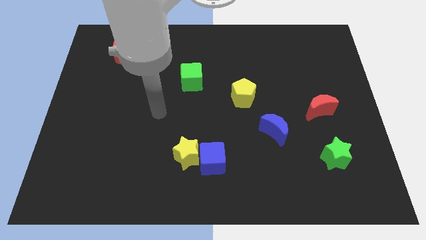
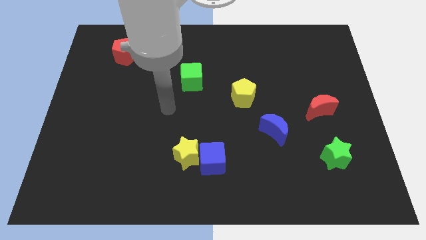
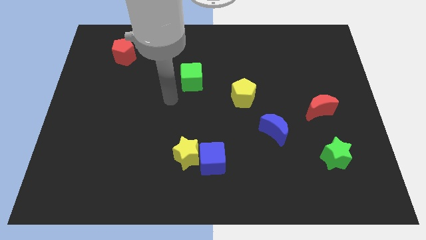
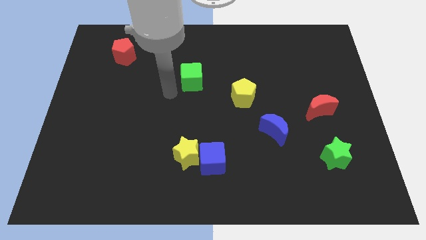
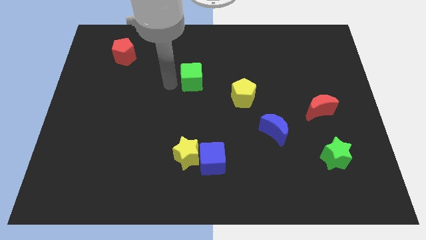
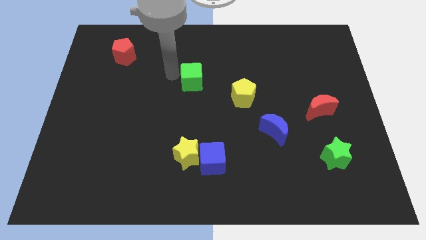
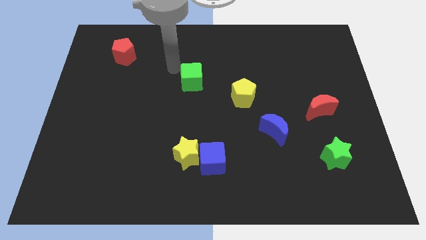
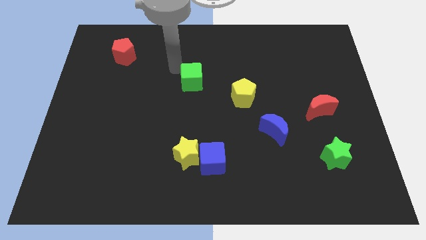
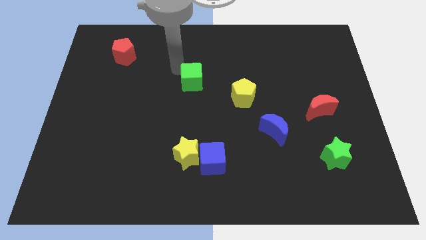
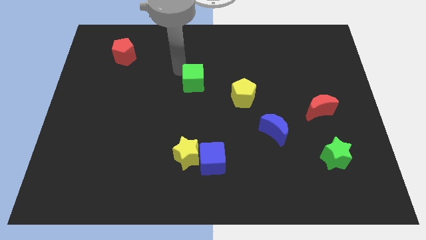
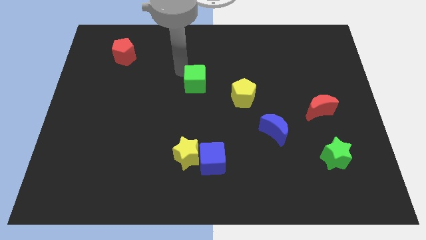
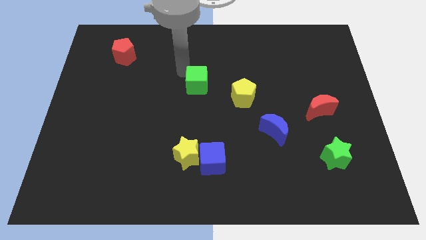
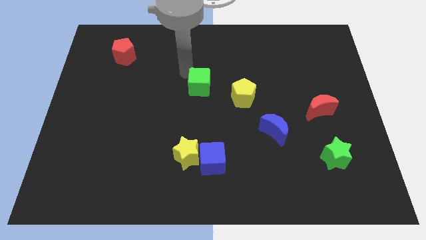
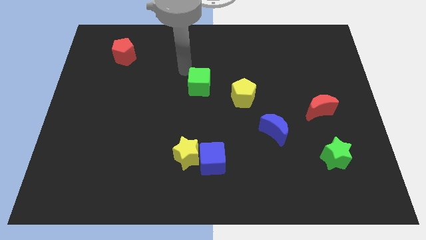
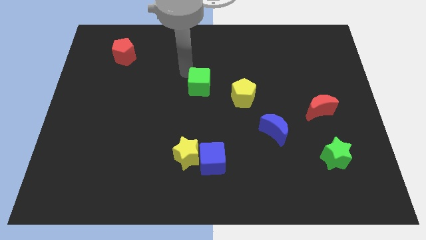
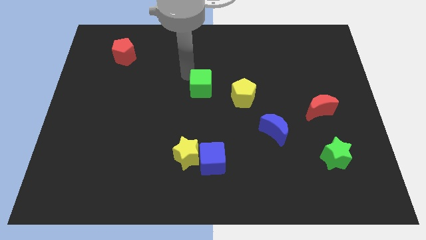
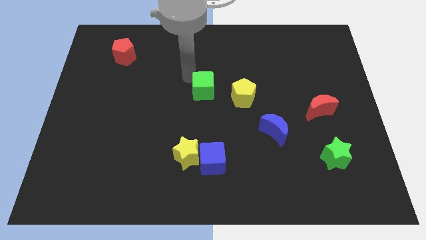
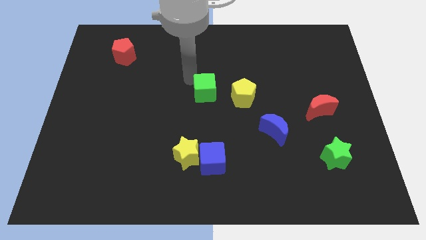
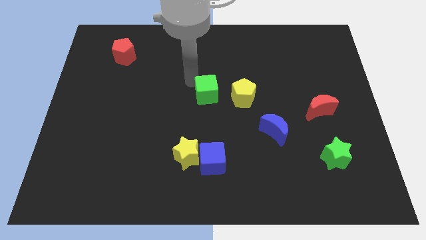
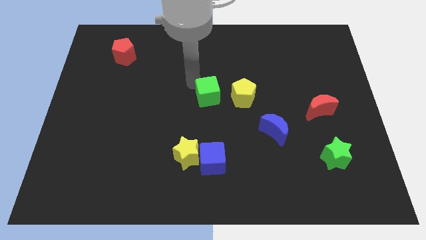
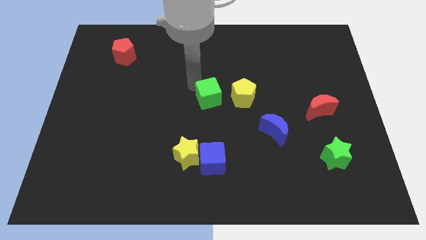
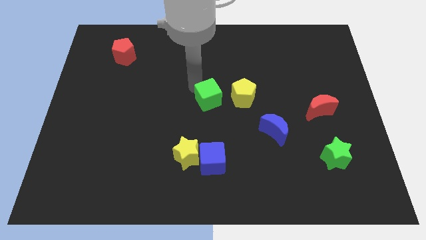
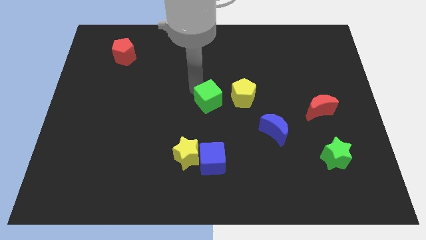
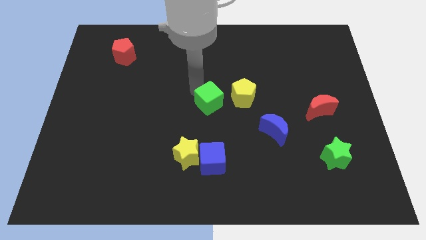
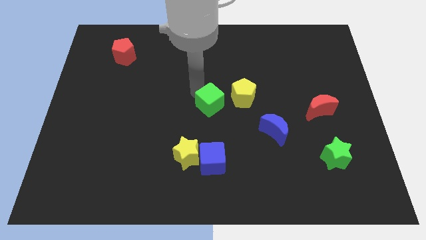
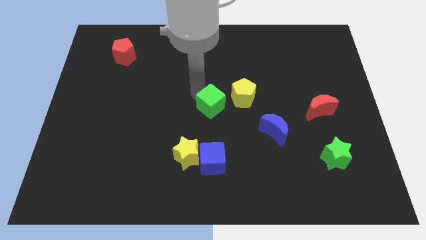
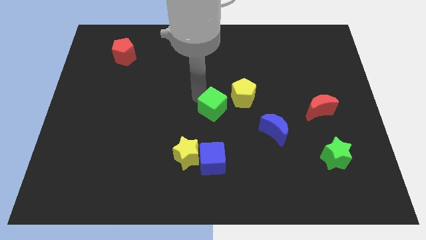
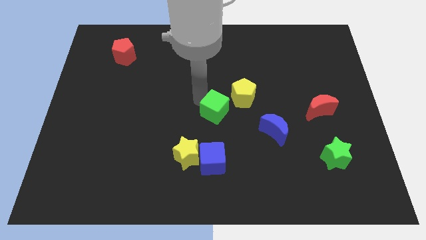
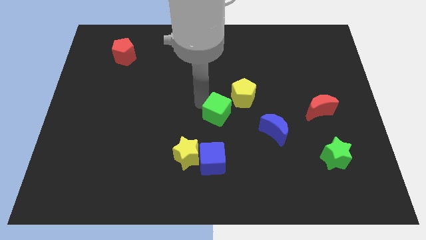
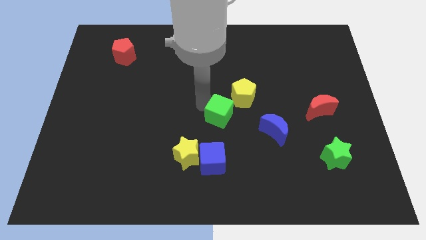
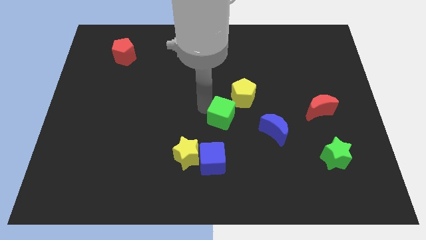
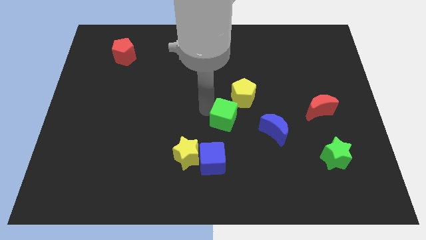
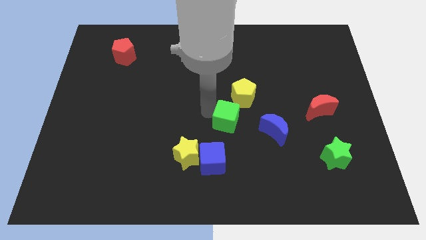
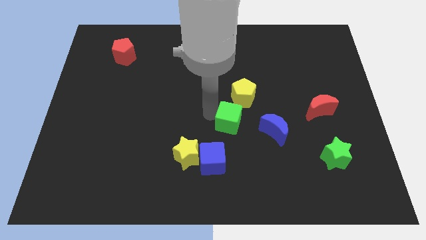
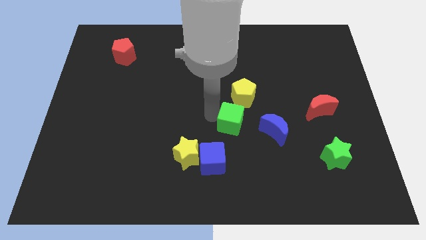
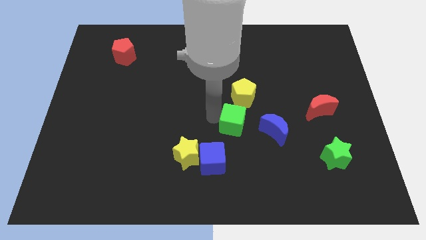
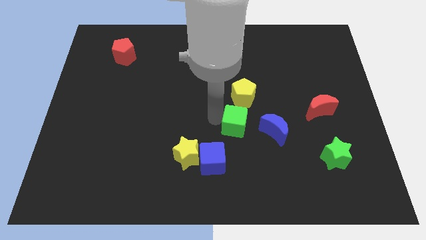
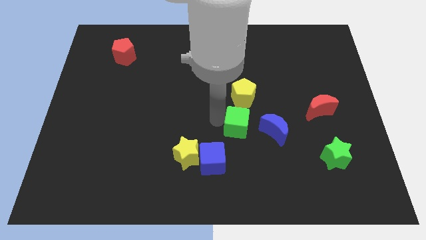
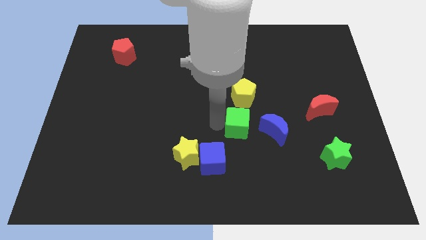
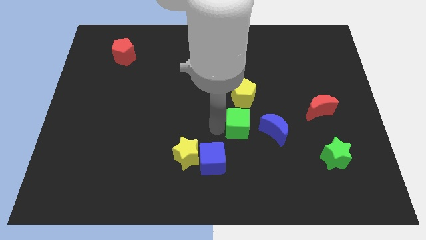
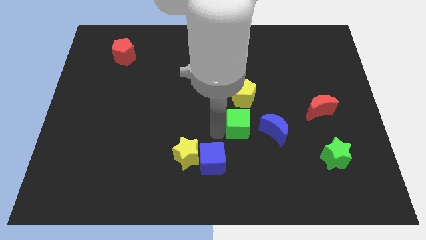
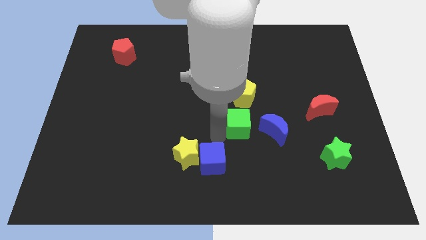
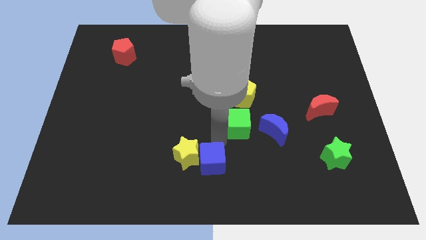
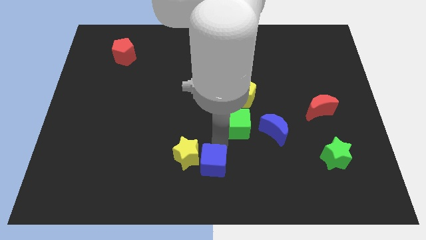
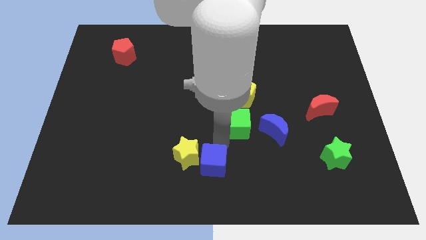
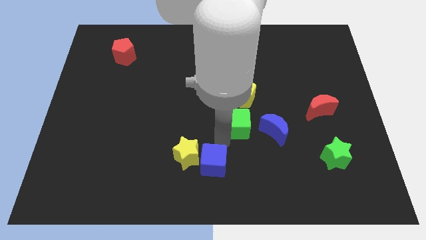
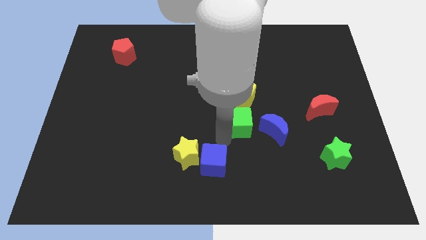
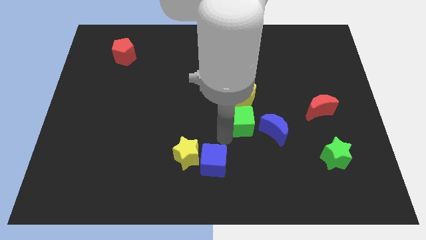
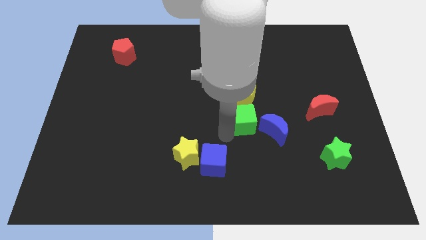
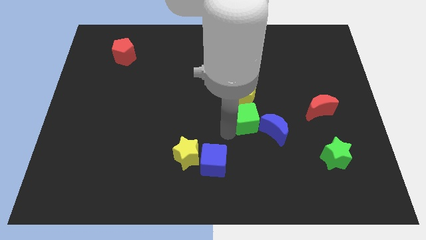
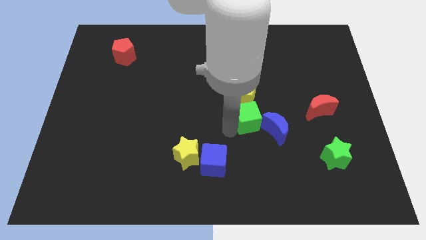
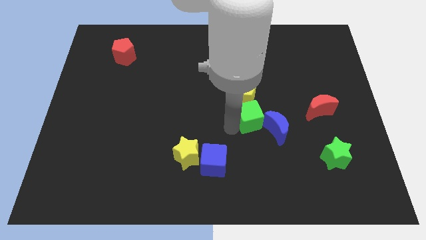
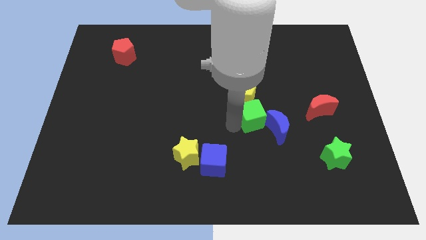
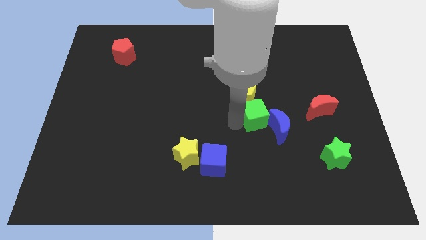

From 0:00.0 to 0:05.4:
move the green cube next to the blue moon

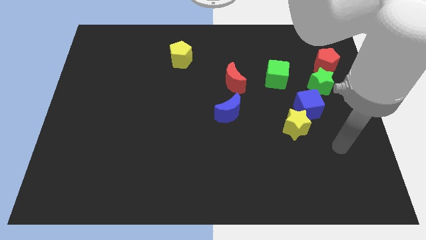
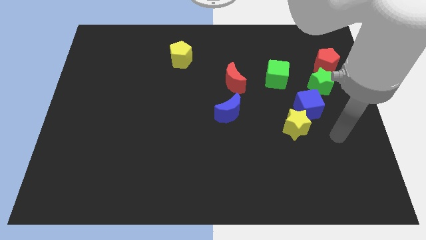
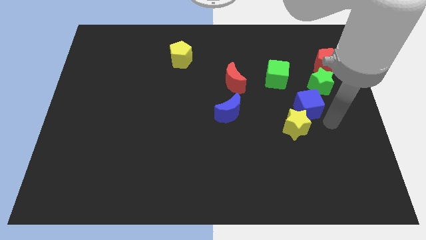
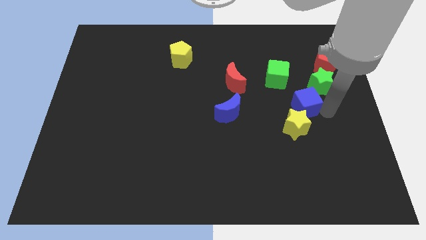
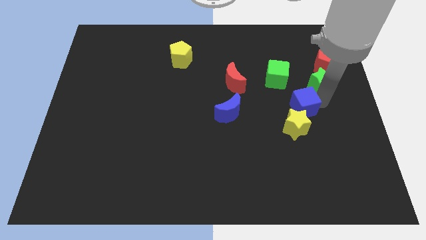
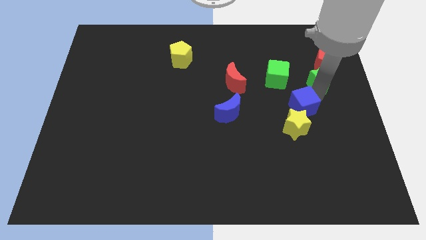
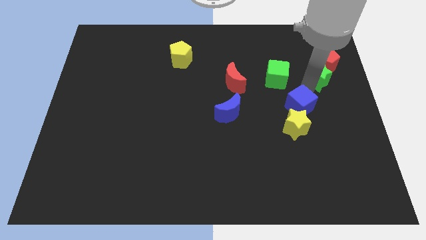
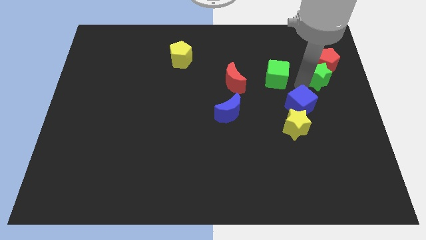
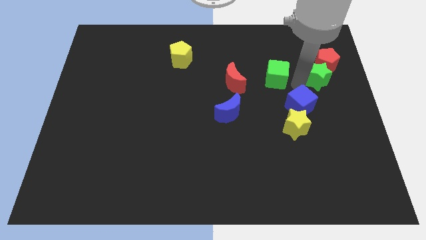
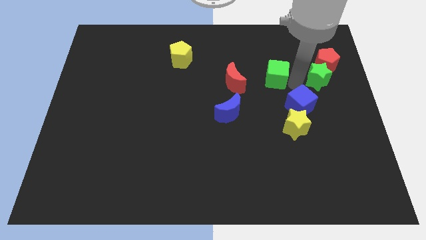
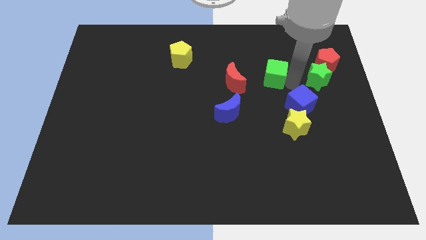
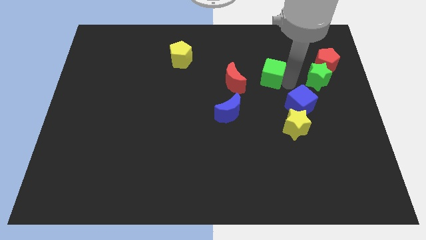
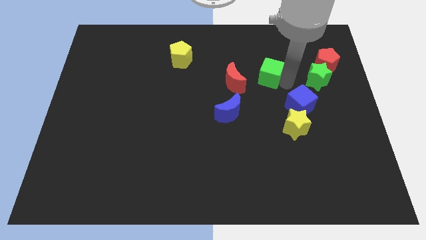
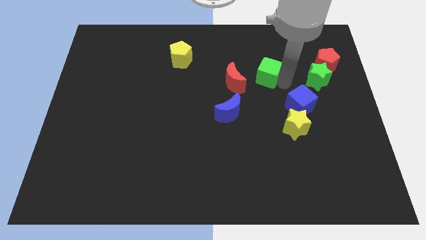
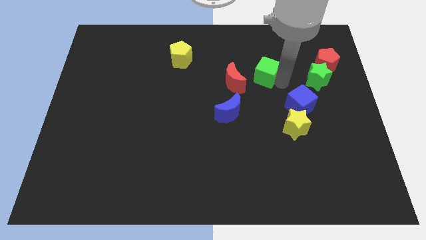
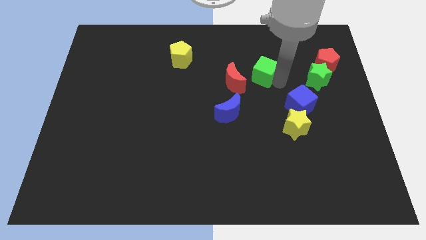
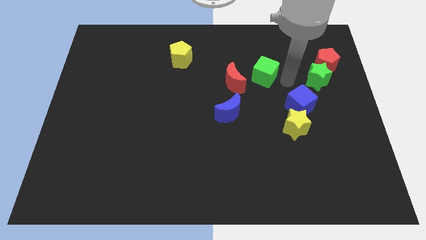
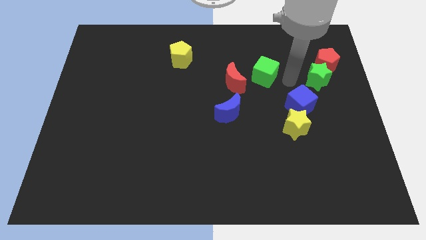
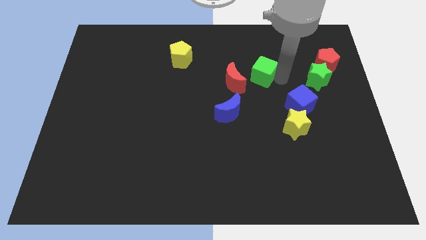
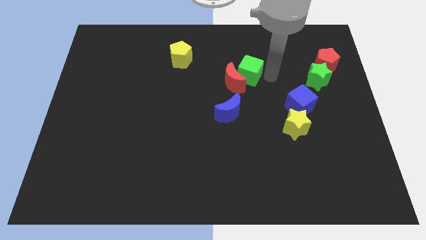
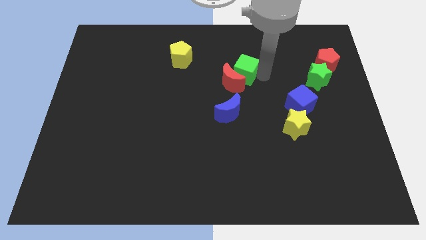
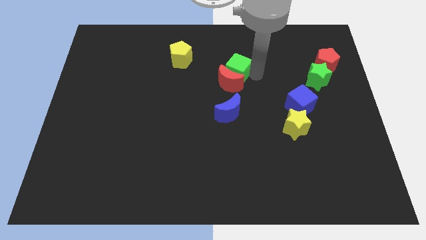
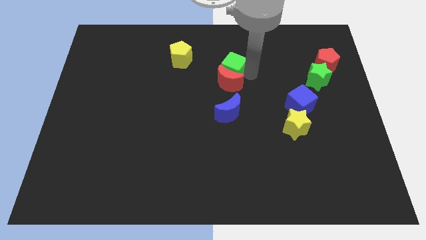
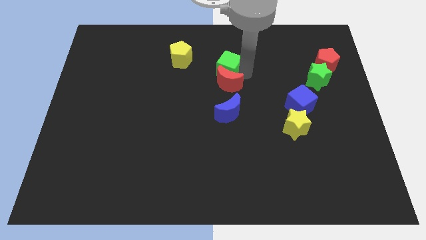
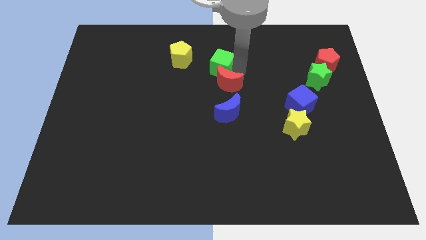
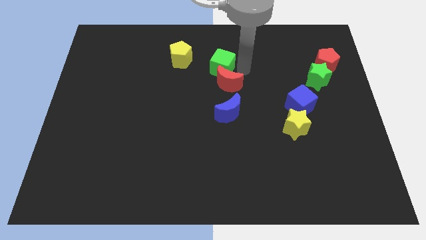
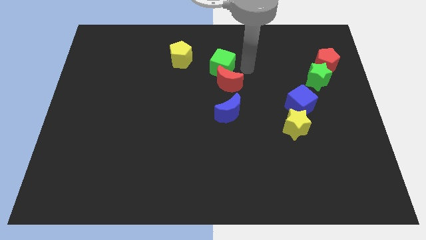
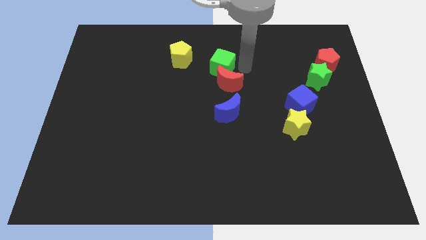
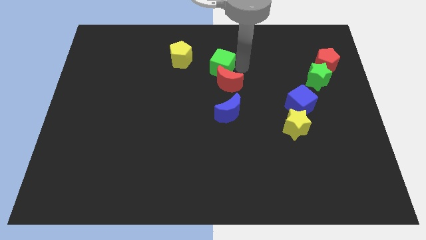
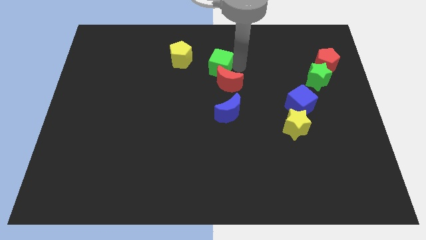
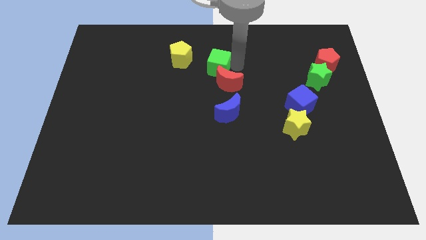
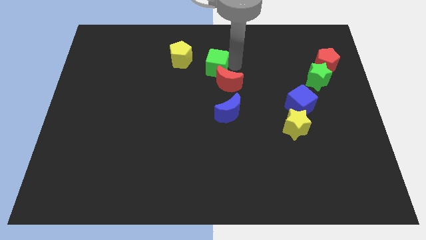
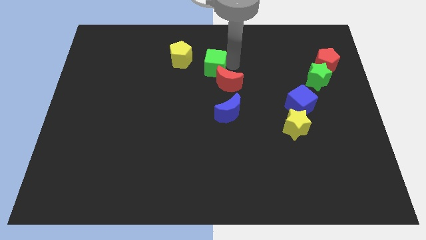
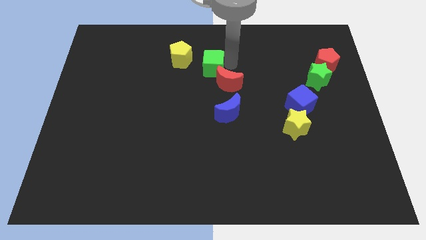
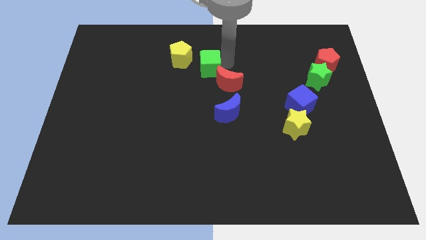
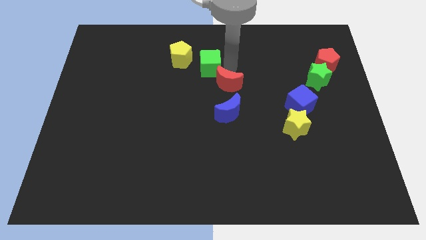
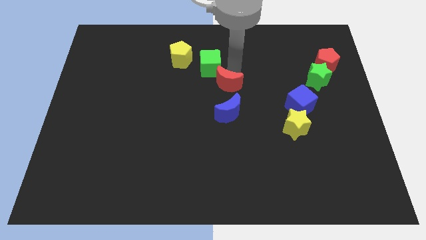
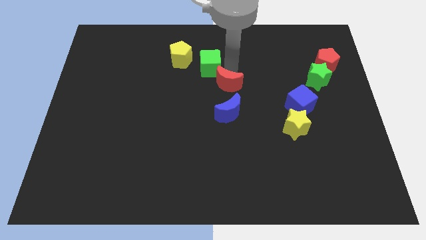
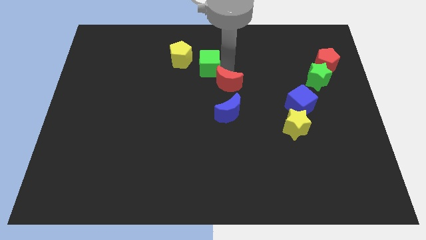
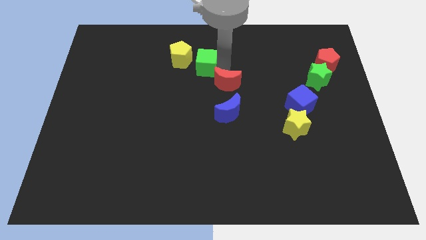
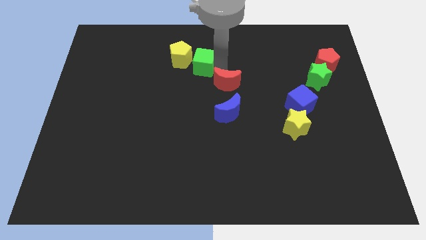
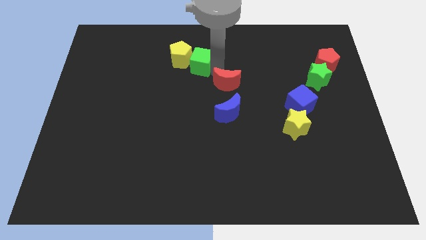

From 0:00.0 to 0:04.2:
push the green cube next to the yellow pentagon
